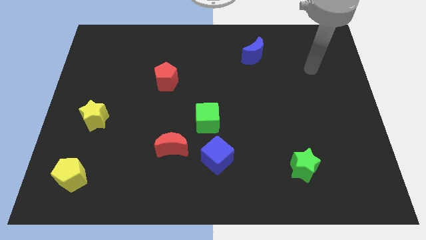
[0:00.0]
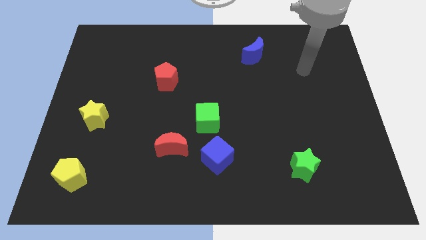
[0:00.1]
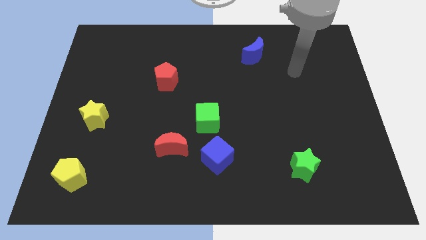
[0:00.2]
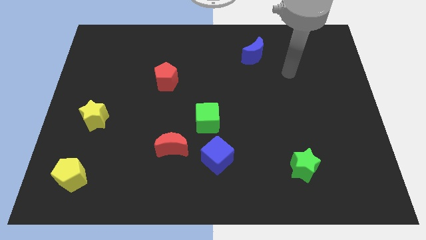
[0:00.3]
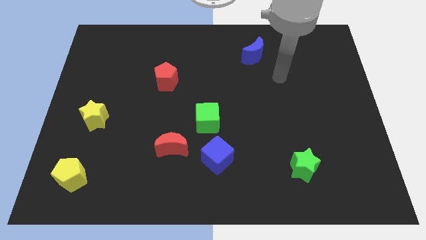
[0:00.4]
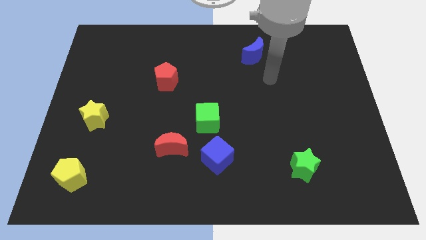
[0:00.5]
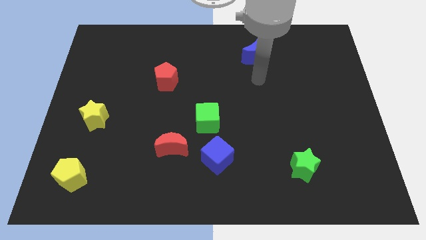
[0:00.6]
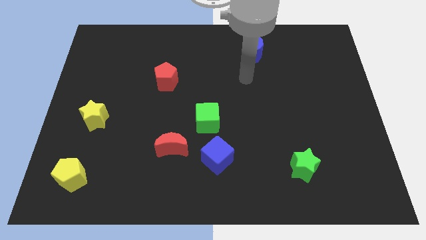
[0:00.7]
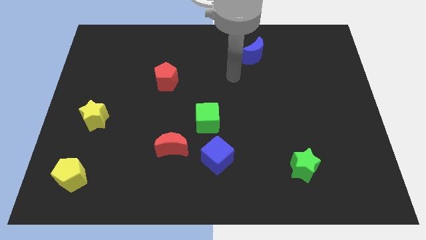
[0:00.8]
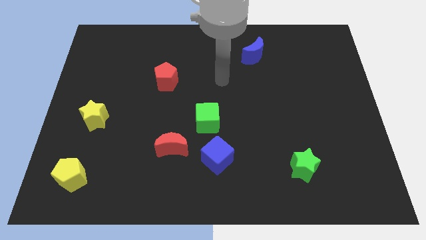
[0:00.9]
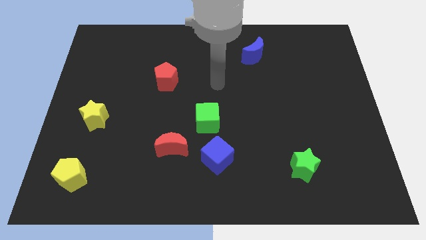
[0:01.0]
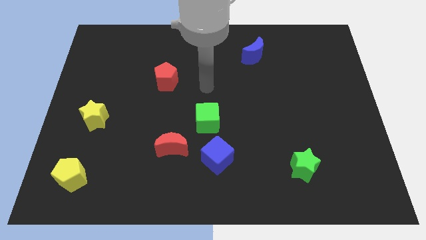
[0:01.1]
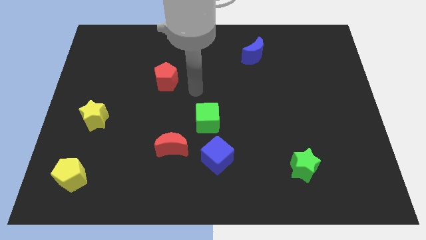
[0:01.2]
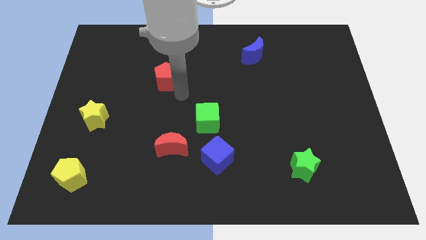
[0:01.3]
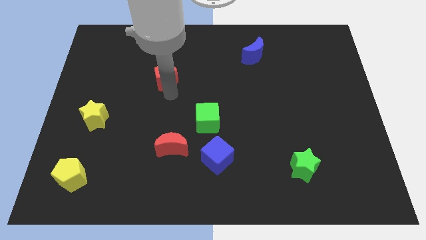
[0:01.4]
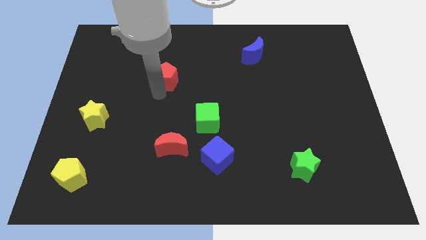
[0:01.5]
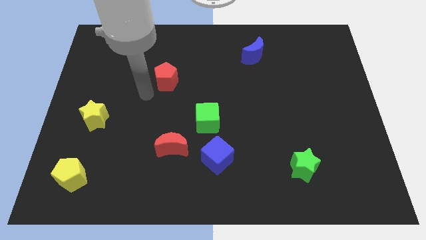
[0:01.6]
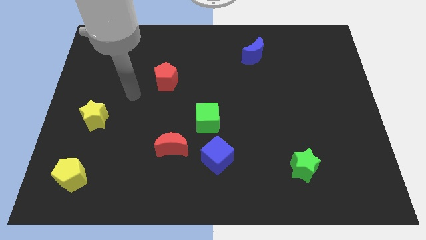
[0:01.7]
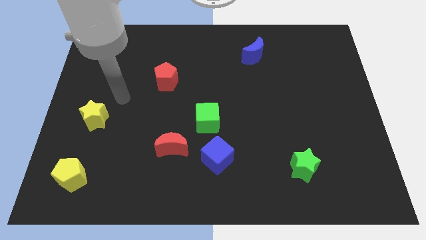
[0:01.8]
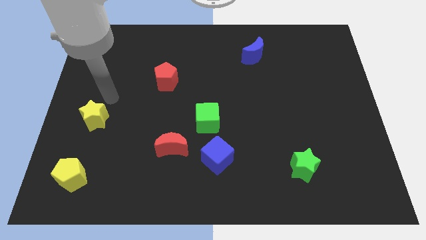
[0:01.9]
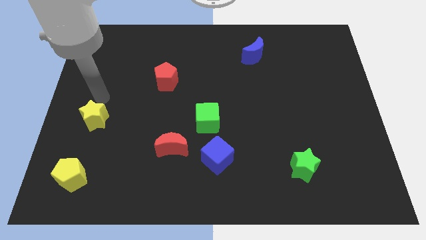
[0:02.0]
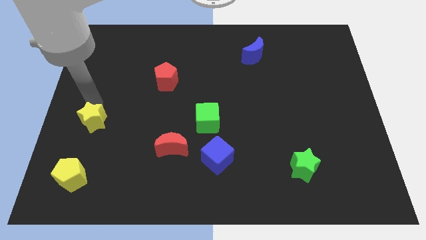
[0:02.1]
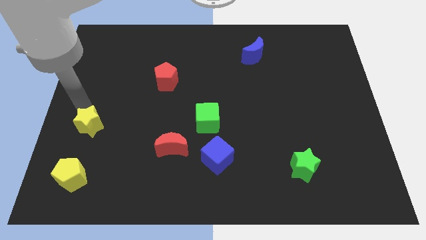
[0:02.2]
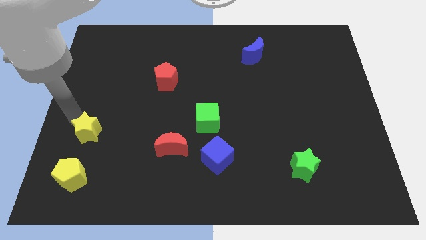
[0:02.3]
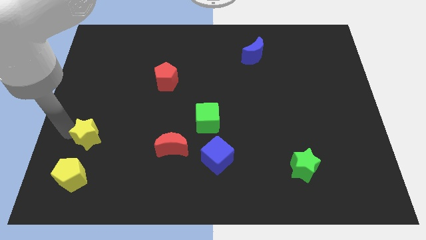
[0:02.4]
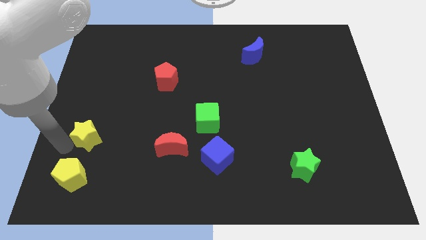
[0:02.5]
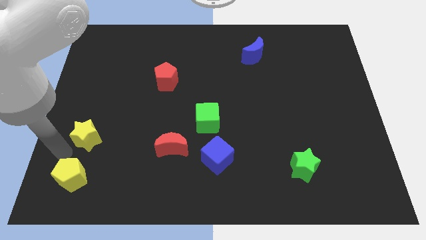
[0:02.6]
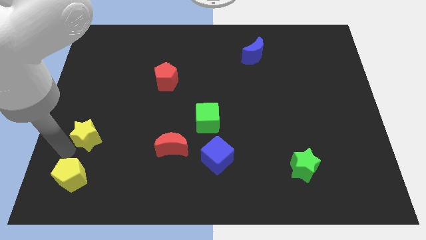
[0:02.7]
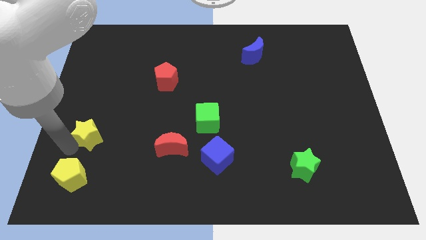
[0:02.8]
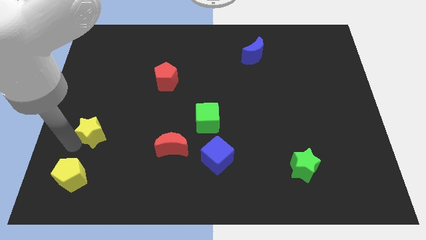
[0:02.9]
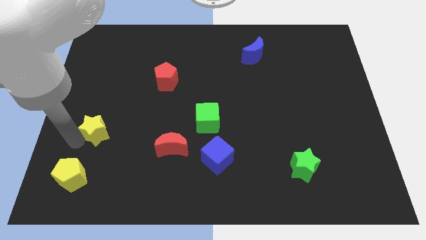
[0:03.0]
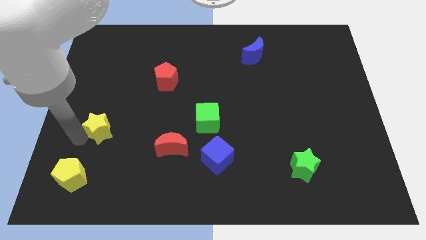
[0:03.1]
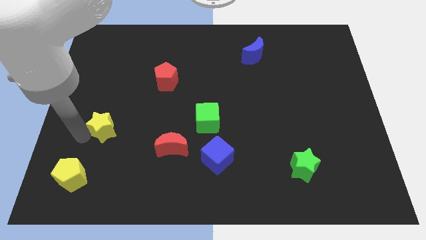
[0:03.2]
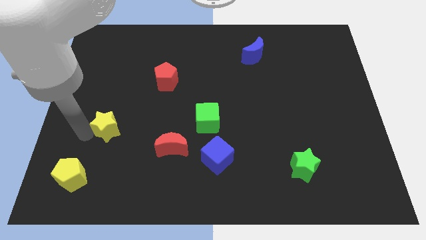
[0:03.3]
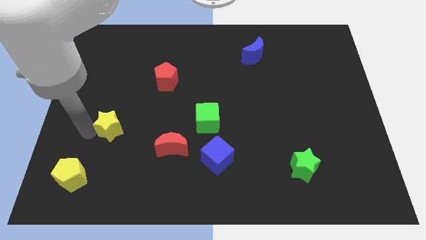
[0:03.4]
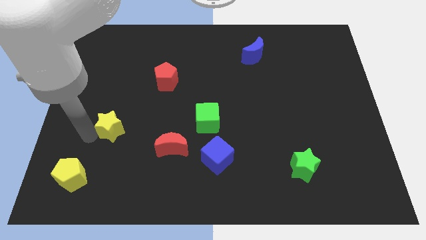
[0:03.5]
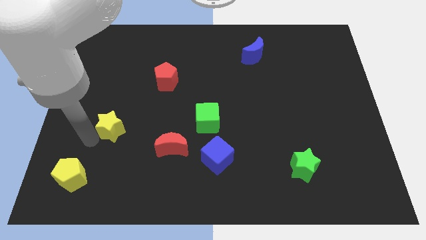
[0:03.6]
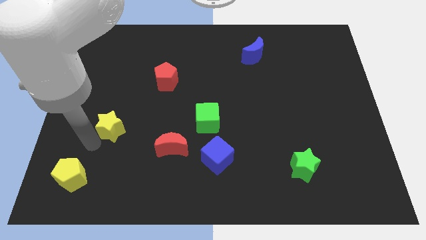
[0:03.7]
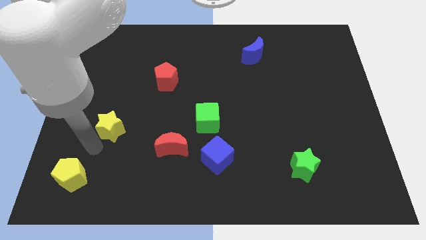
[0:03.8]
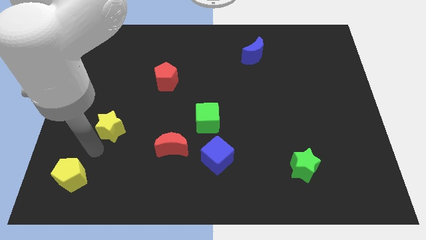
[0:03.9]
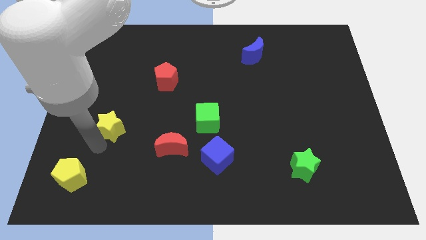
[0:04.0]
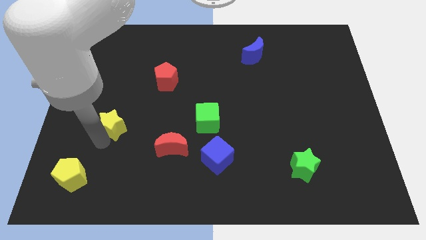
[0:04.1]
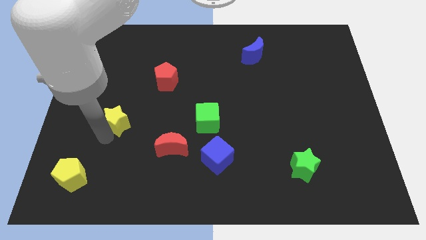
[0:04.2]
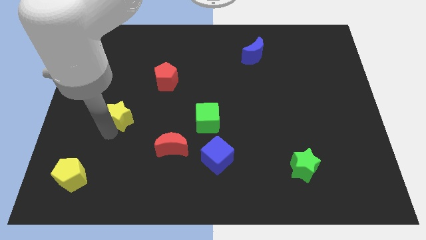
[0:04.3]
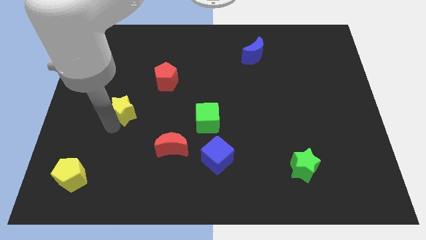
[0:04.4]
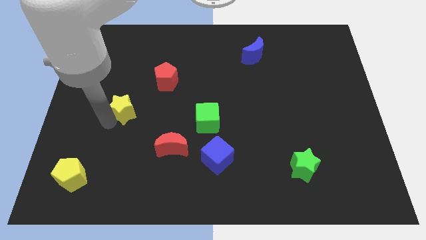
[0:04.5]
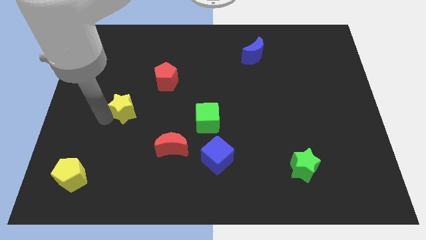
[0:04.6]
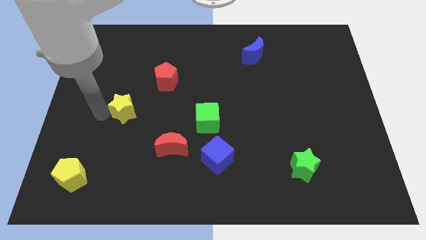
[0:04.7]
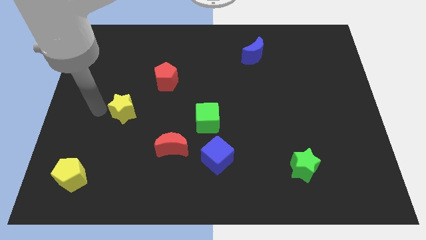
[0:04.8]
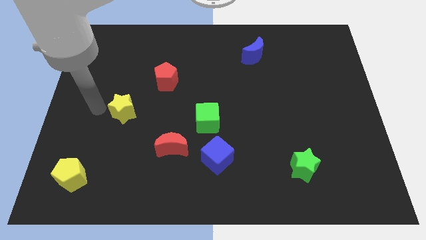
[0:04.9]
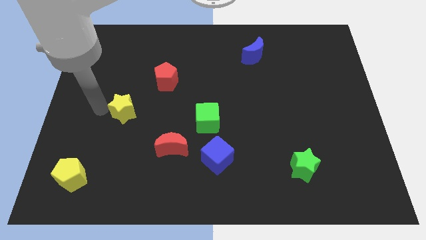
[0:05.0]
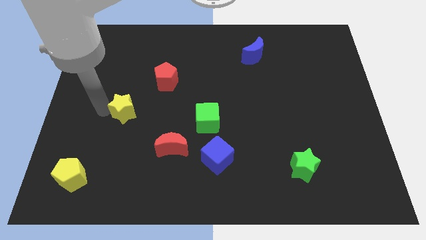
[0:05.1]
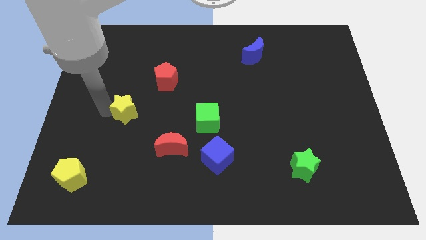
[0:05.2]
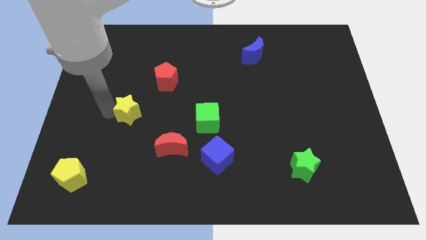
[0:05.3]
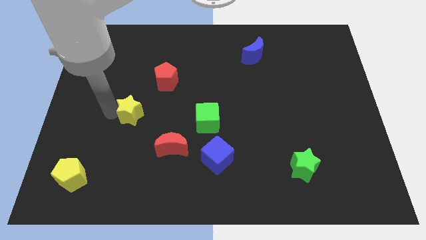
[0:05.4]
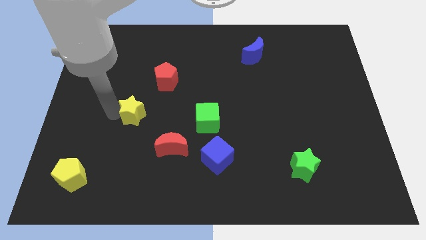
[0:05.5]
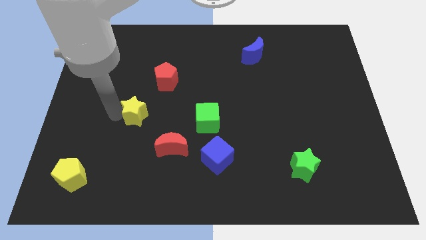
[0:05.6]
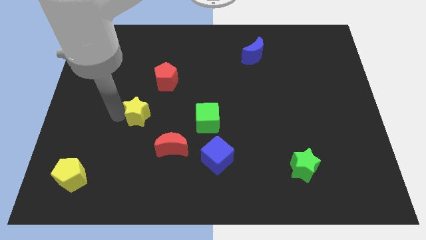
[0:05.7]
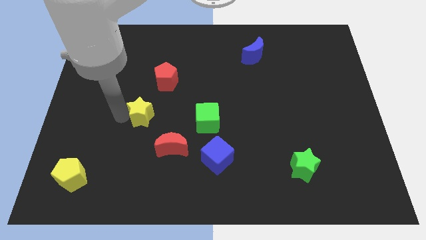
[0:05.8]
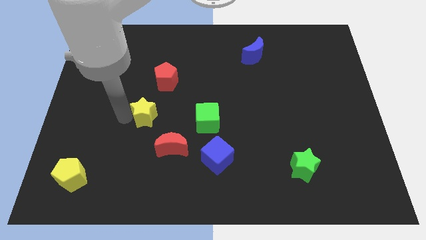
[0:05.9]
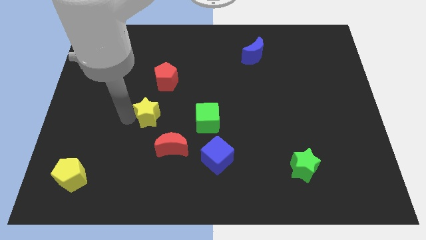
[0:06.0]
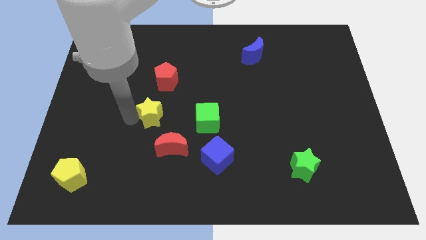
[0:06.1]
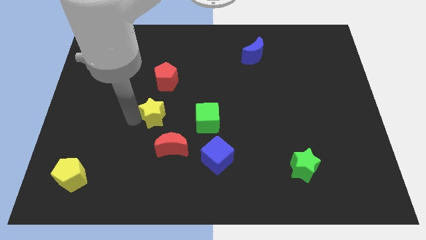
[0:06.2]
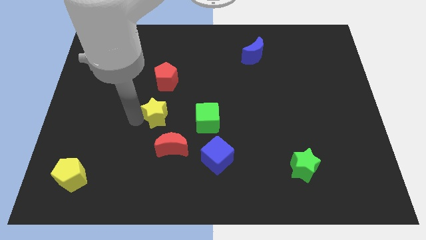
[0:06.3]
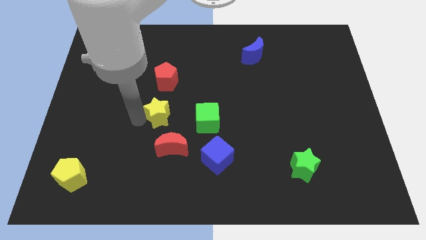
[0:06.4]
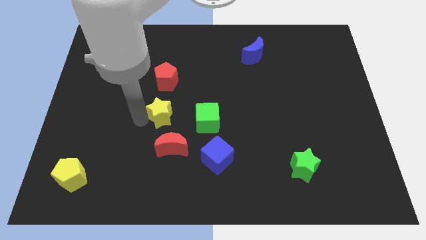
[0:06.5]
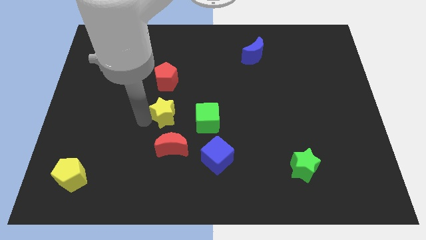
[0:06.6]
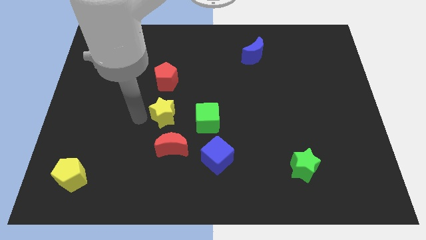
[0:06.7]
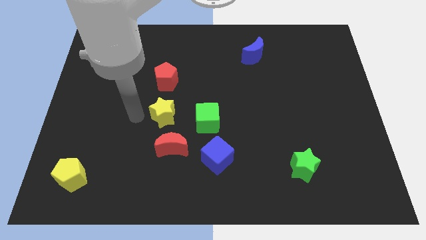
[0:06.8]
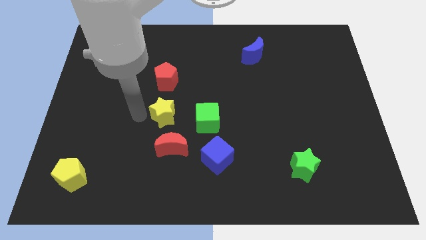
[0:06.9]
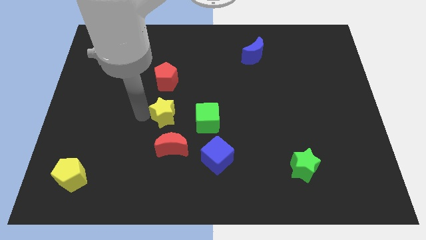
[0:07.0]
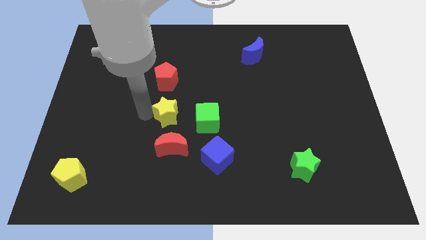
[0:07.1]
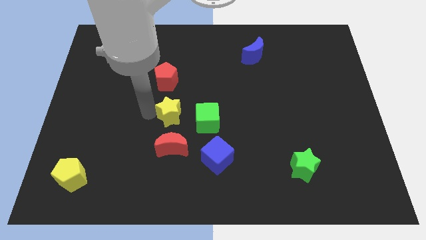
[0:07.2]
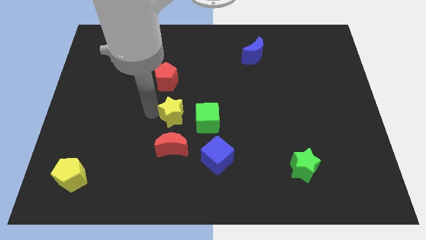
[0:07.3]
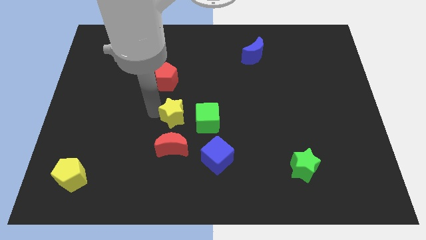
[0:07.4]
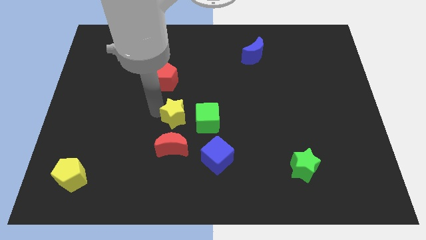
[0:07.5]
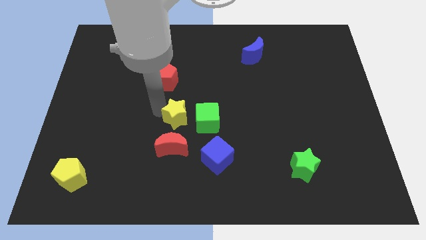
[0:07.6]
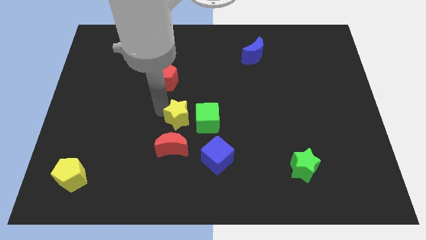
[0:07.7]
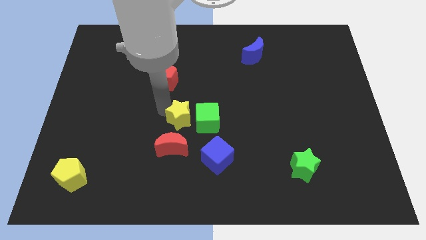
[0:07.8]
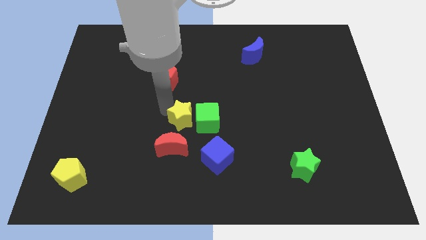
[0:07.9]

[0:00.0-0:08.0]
put the yellow star next to the green cube
